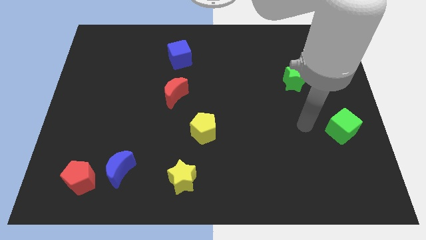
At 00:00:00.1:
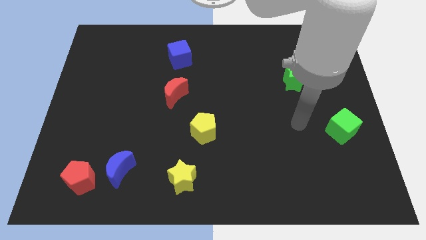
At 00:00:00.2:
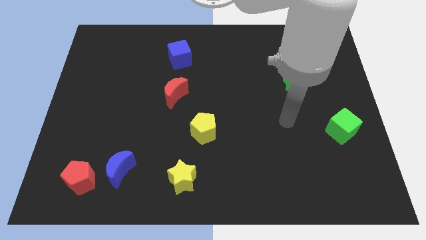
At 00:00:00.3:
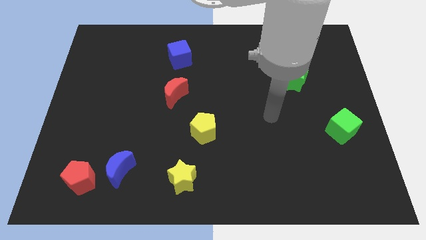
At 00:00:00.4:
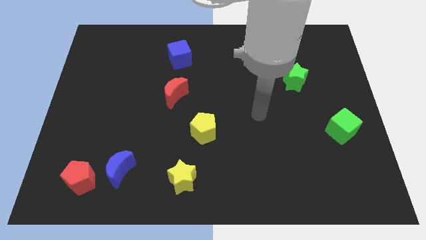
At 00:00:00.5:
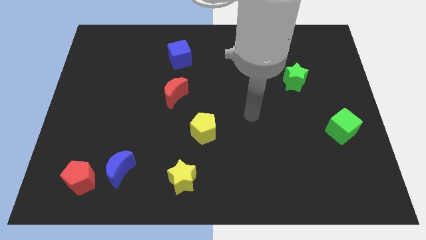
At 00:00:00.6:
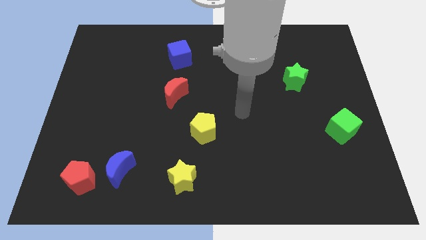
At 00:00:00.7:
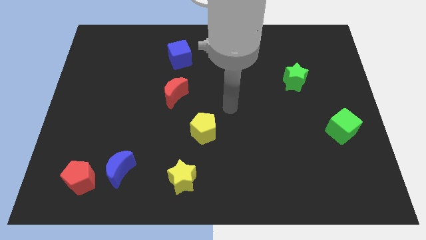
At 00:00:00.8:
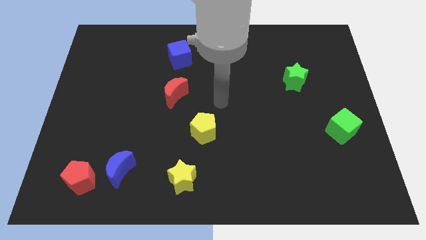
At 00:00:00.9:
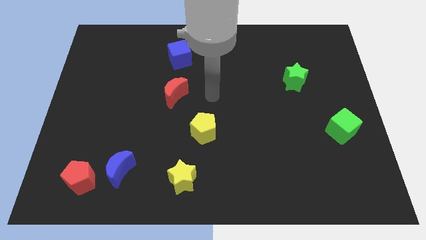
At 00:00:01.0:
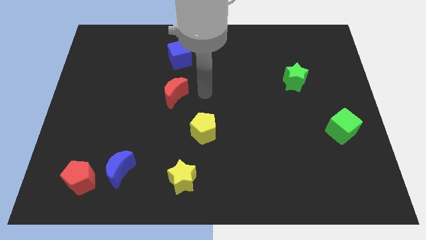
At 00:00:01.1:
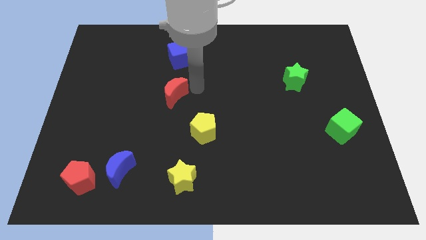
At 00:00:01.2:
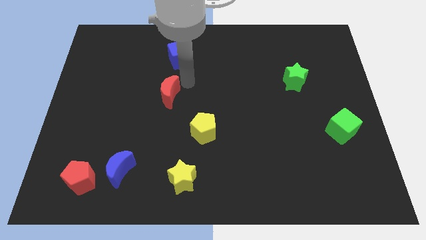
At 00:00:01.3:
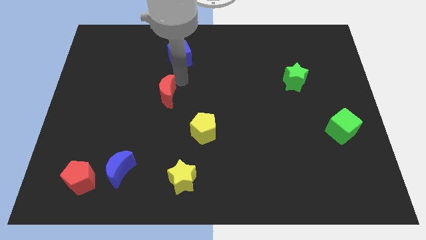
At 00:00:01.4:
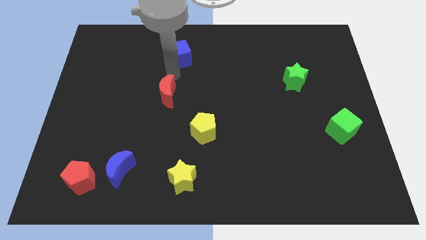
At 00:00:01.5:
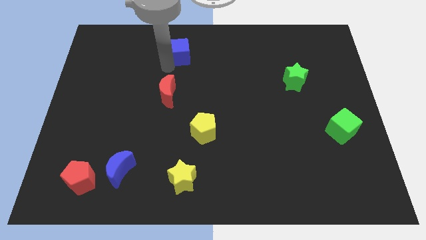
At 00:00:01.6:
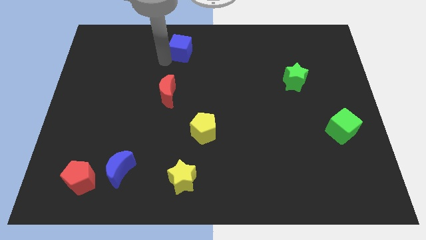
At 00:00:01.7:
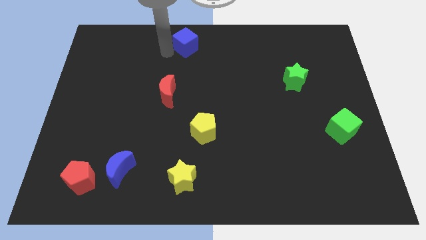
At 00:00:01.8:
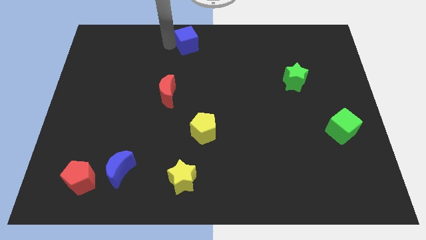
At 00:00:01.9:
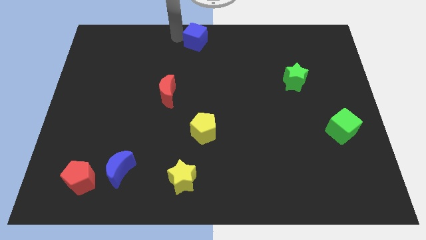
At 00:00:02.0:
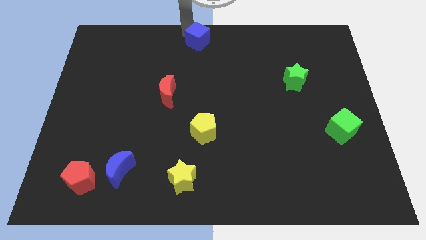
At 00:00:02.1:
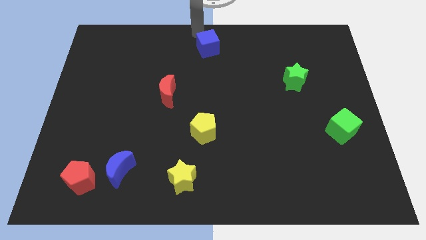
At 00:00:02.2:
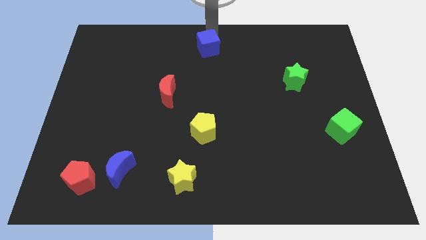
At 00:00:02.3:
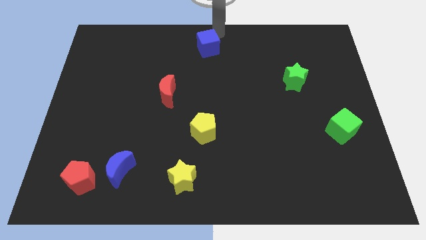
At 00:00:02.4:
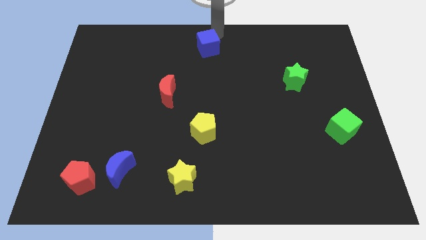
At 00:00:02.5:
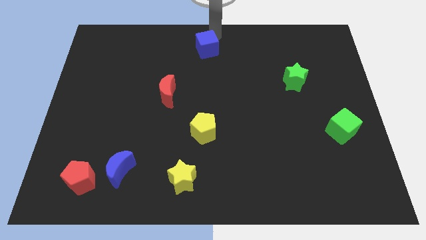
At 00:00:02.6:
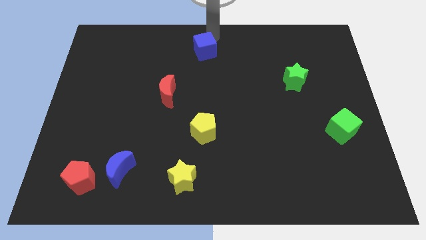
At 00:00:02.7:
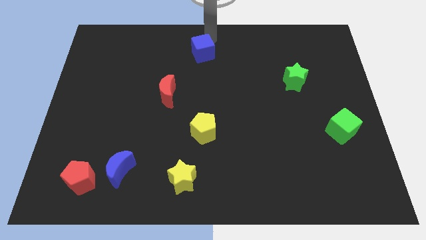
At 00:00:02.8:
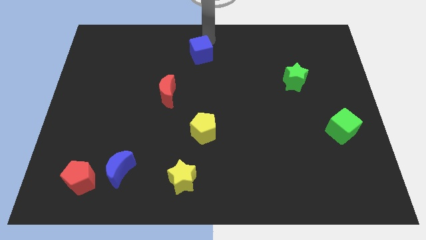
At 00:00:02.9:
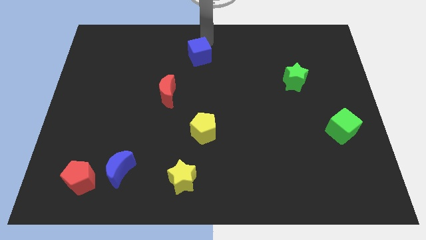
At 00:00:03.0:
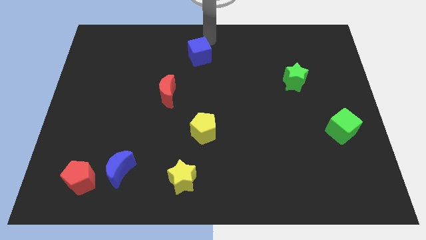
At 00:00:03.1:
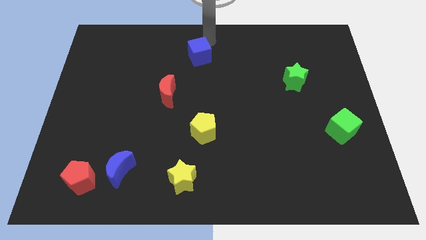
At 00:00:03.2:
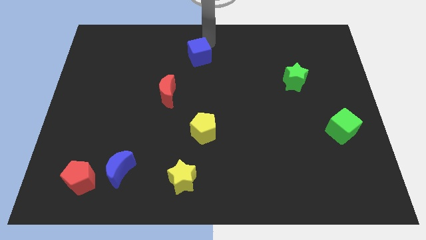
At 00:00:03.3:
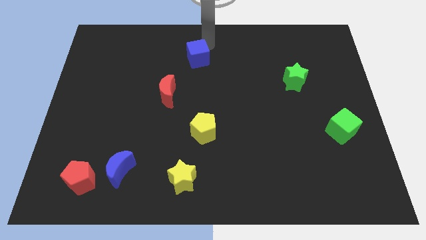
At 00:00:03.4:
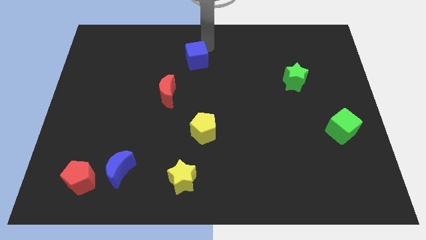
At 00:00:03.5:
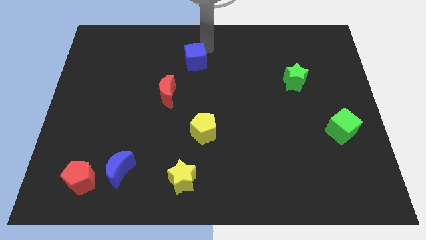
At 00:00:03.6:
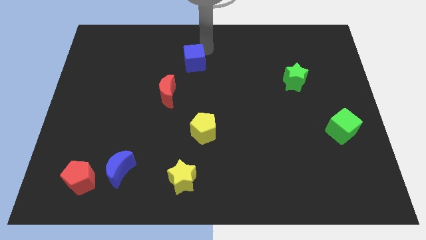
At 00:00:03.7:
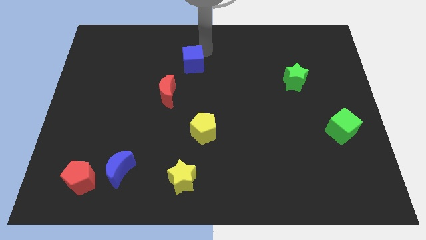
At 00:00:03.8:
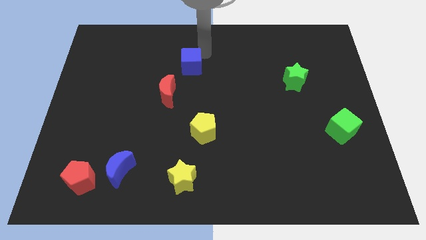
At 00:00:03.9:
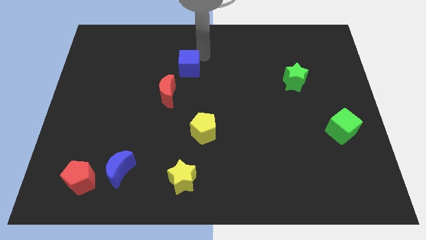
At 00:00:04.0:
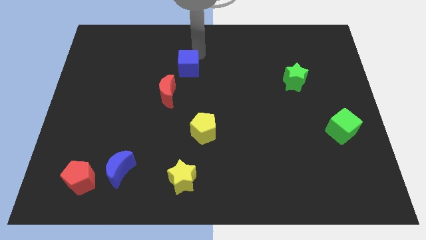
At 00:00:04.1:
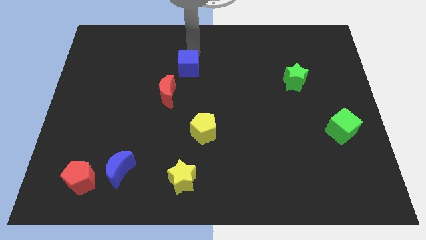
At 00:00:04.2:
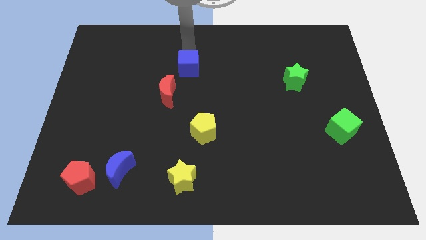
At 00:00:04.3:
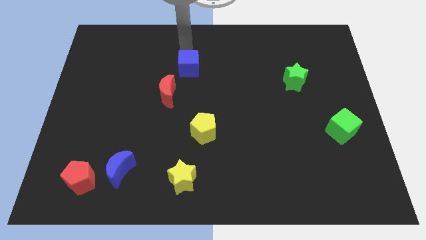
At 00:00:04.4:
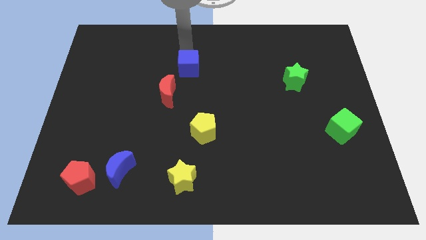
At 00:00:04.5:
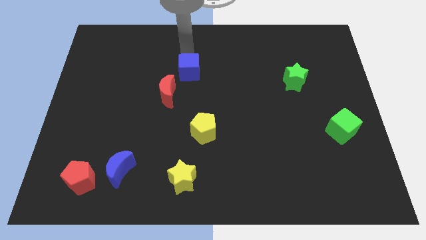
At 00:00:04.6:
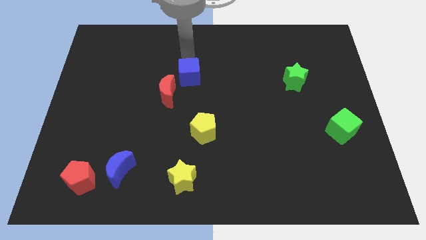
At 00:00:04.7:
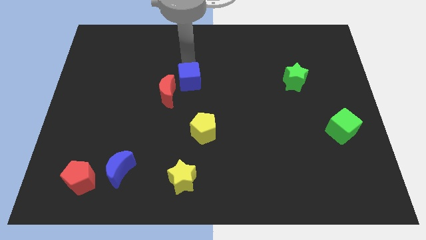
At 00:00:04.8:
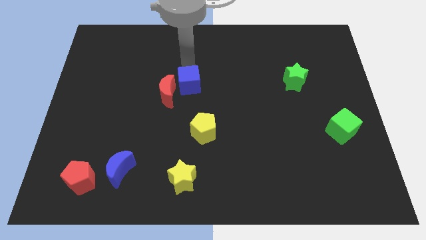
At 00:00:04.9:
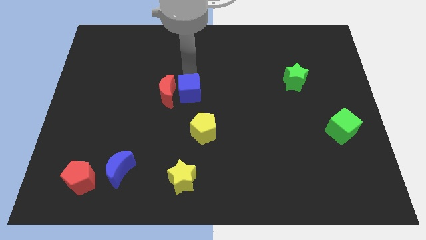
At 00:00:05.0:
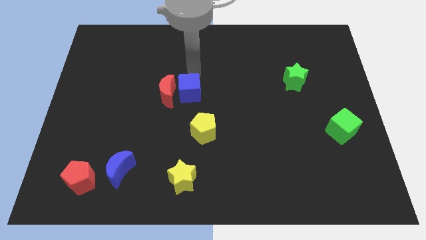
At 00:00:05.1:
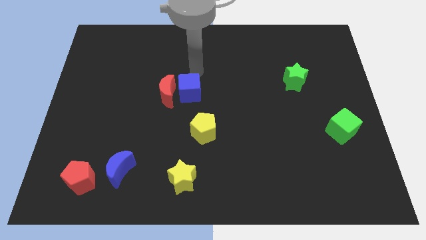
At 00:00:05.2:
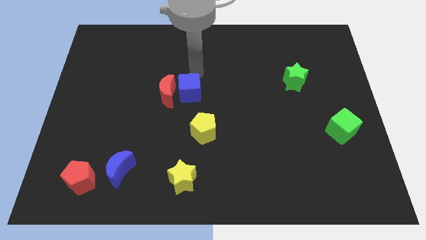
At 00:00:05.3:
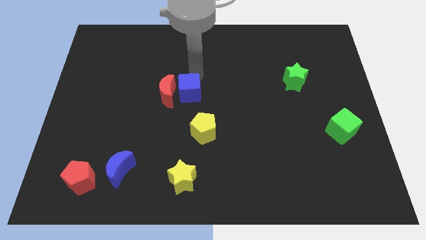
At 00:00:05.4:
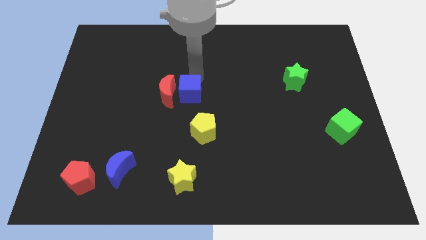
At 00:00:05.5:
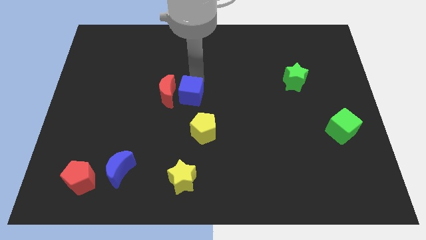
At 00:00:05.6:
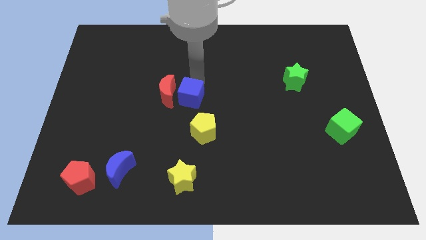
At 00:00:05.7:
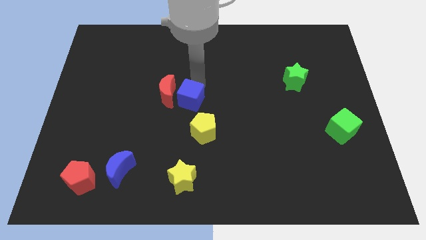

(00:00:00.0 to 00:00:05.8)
put the blue cube to the top left side of the yellow pentagon

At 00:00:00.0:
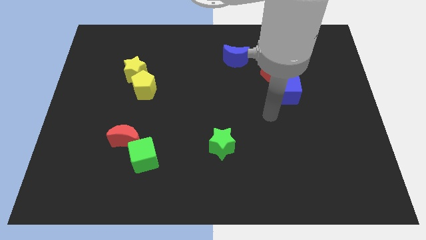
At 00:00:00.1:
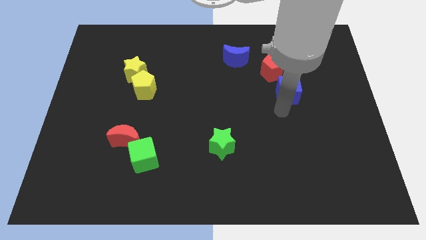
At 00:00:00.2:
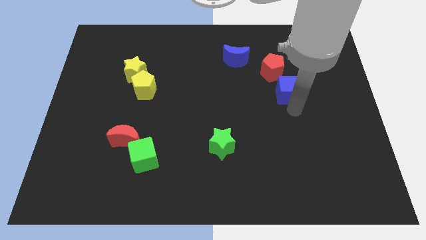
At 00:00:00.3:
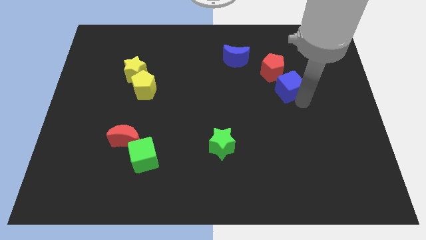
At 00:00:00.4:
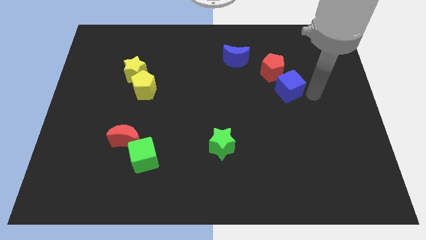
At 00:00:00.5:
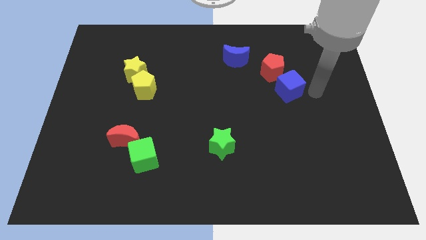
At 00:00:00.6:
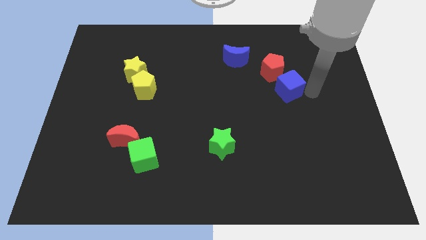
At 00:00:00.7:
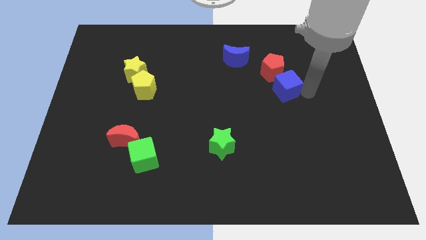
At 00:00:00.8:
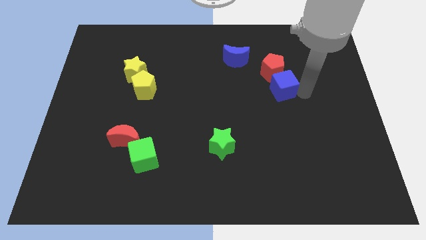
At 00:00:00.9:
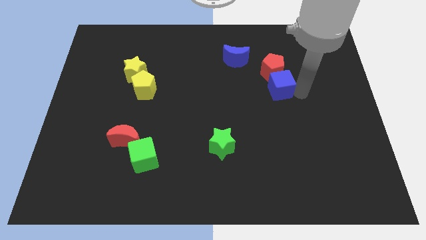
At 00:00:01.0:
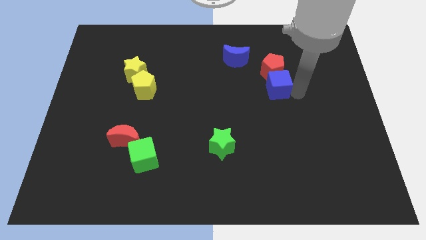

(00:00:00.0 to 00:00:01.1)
move the blue cube diagonally down and to the left of the red pentagon

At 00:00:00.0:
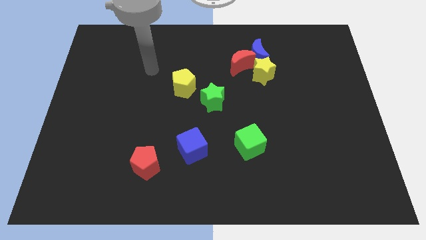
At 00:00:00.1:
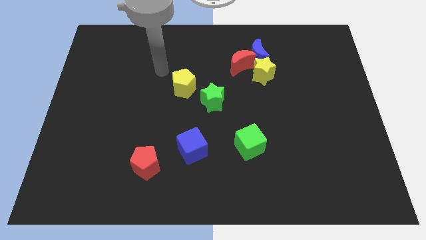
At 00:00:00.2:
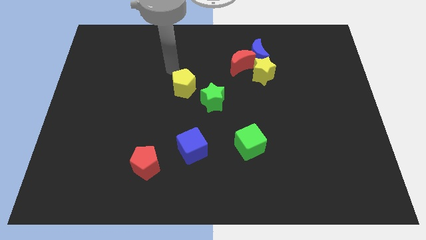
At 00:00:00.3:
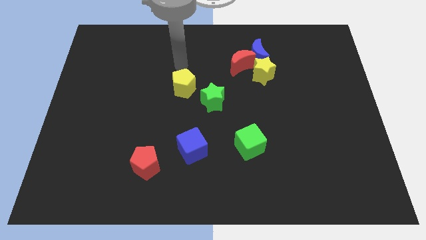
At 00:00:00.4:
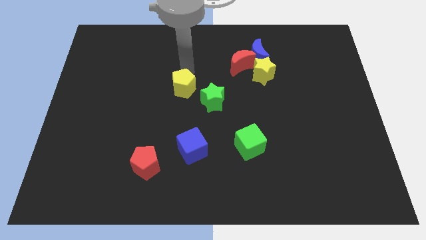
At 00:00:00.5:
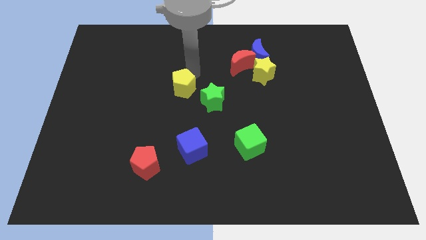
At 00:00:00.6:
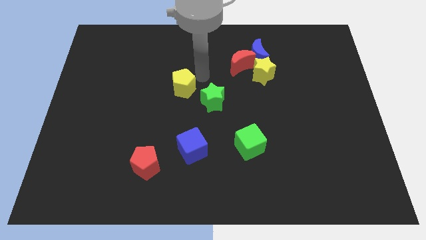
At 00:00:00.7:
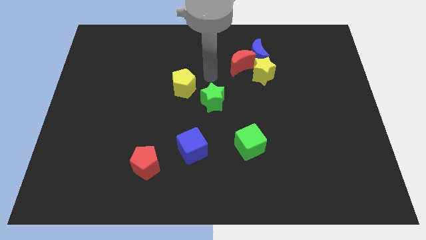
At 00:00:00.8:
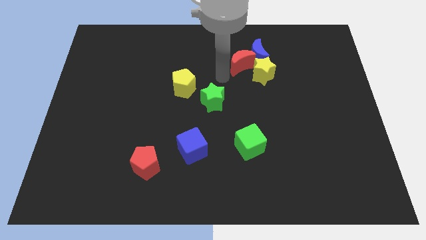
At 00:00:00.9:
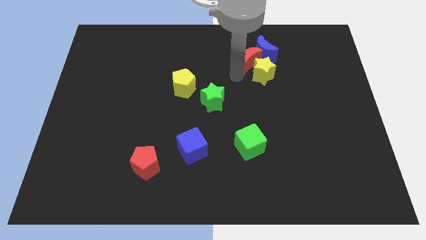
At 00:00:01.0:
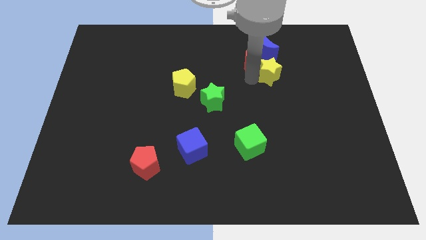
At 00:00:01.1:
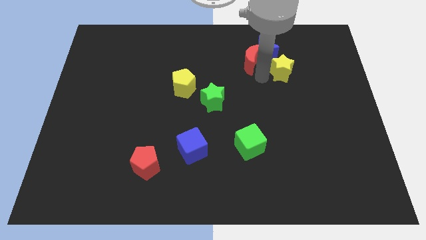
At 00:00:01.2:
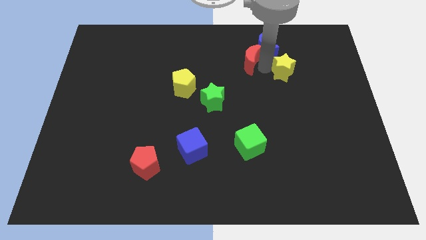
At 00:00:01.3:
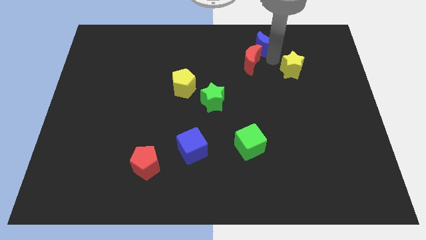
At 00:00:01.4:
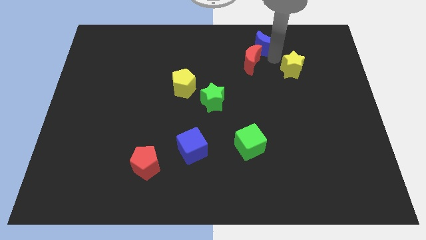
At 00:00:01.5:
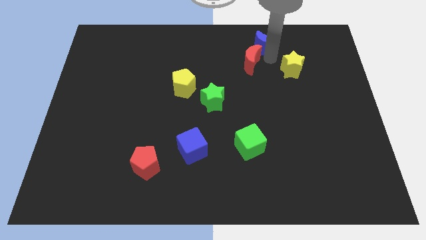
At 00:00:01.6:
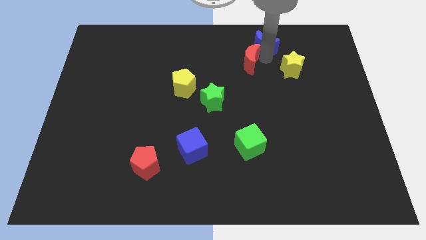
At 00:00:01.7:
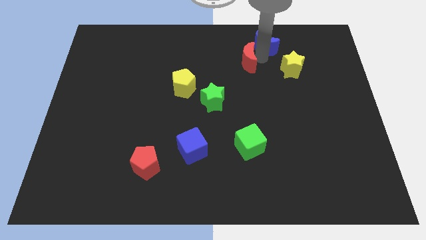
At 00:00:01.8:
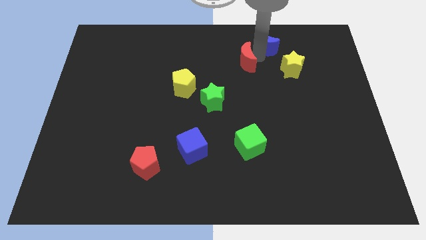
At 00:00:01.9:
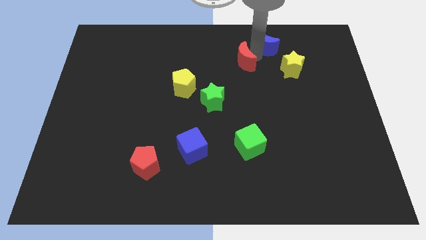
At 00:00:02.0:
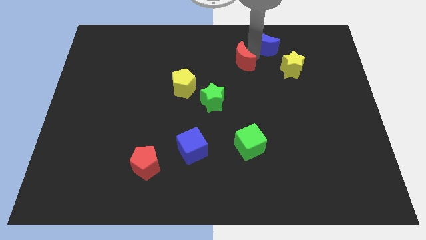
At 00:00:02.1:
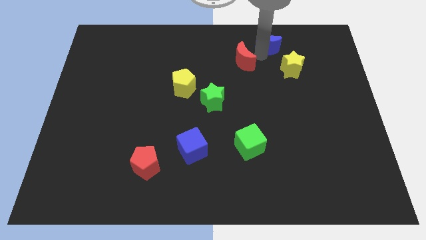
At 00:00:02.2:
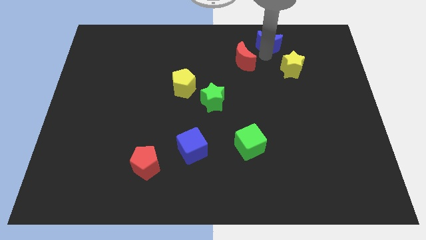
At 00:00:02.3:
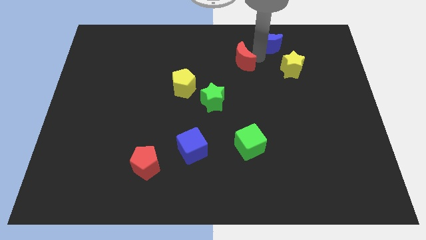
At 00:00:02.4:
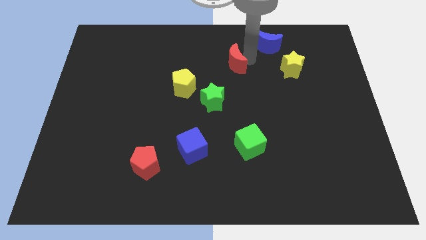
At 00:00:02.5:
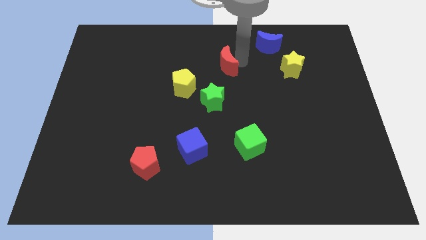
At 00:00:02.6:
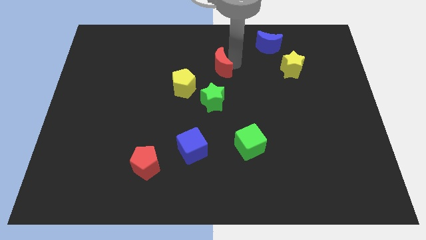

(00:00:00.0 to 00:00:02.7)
put the red moon diagonally up and to the right of the yellow pentagon
